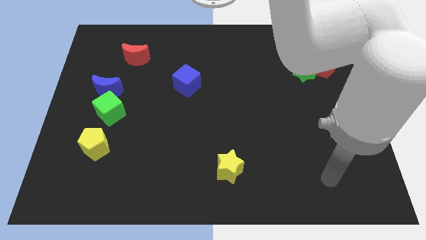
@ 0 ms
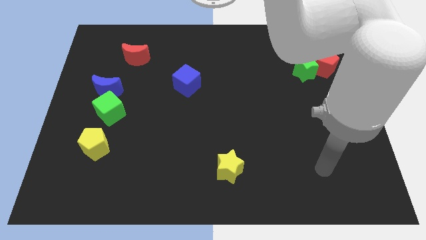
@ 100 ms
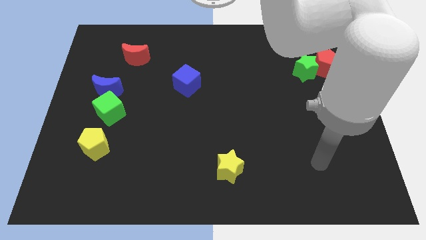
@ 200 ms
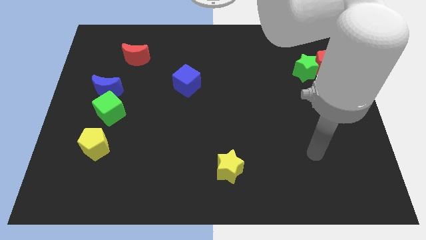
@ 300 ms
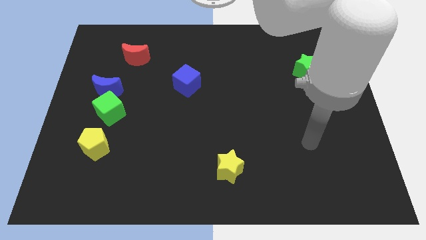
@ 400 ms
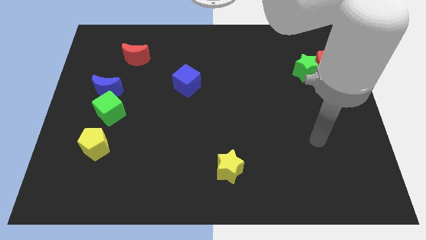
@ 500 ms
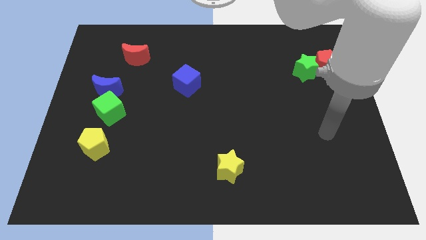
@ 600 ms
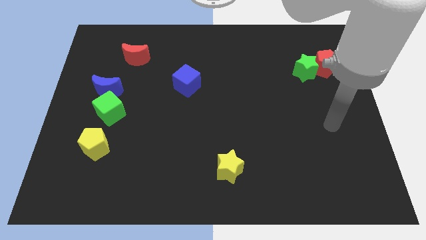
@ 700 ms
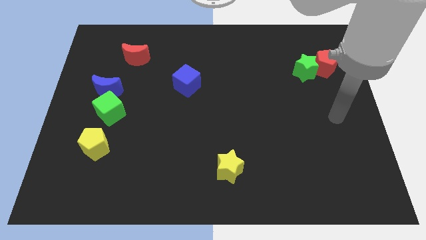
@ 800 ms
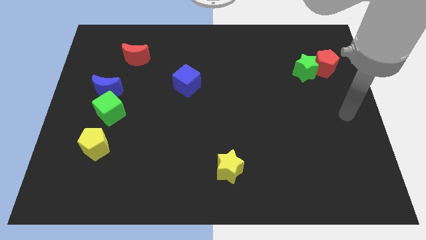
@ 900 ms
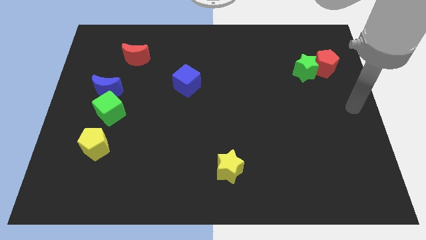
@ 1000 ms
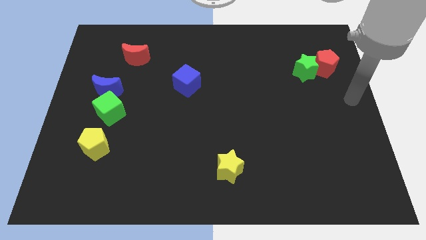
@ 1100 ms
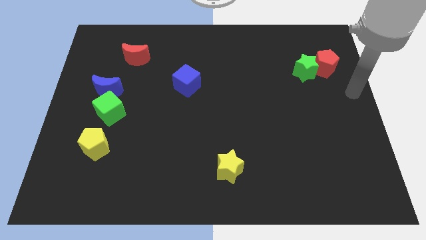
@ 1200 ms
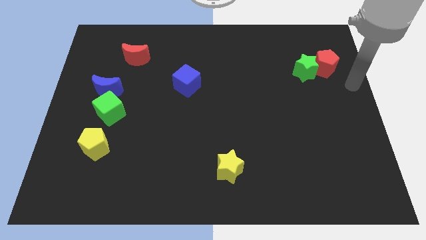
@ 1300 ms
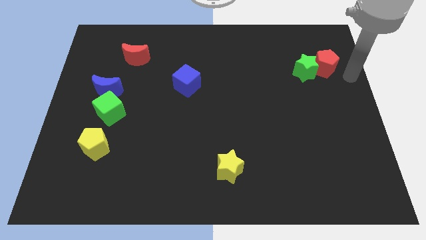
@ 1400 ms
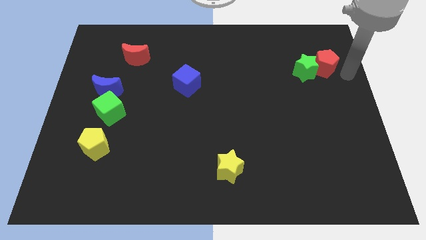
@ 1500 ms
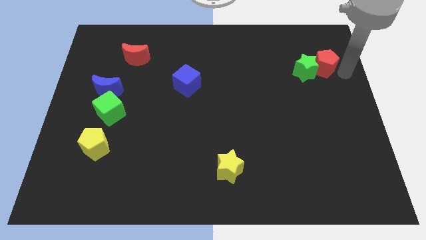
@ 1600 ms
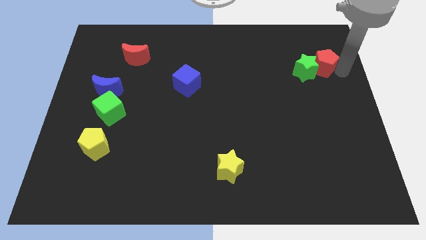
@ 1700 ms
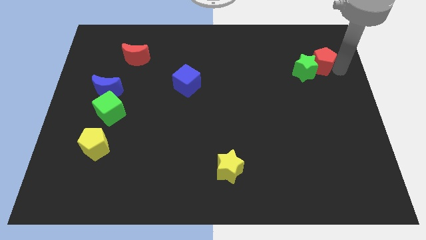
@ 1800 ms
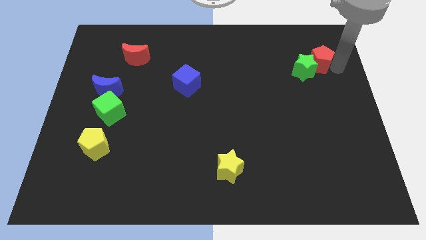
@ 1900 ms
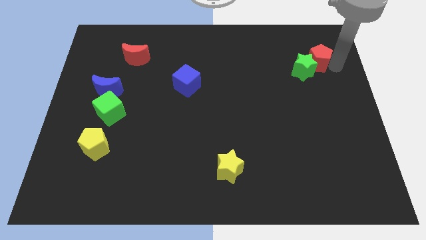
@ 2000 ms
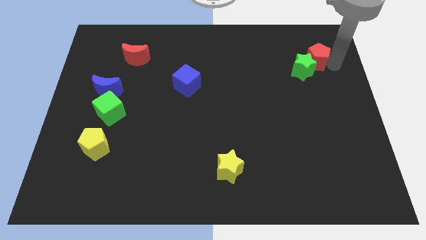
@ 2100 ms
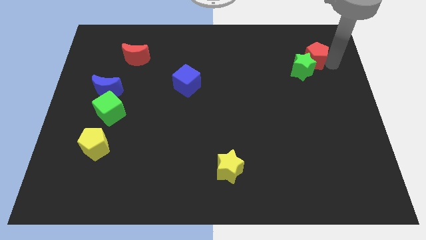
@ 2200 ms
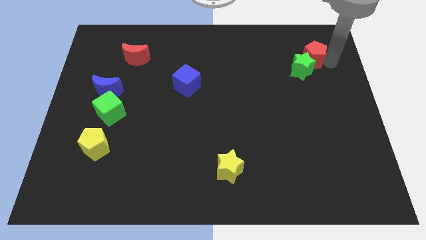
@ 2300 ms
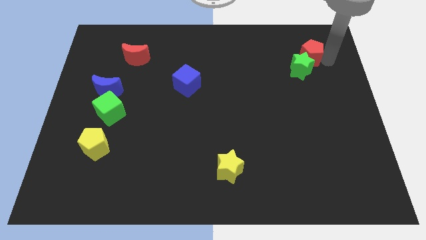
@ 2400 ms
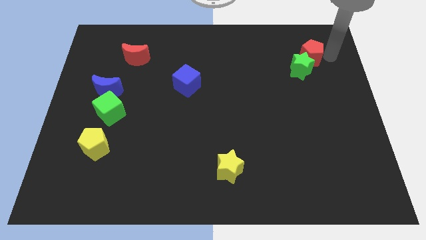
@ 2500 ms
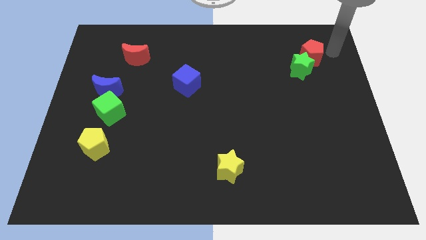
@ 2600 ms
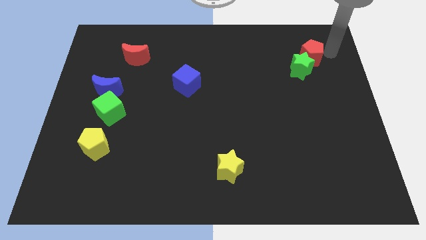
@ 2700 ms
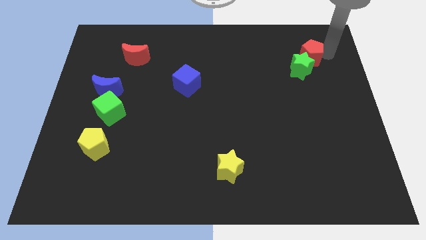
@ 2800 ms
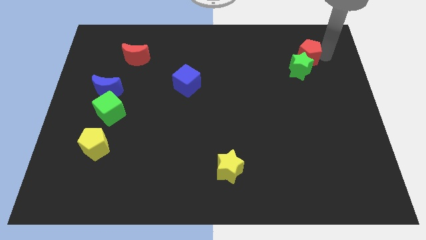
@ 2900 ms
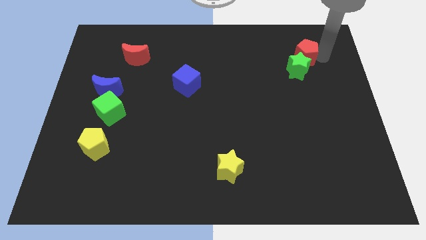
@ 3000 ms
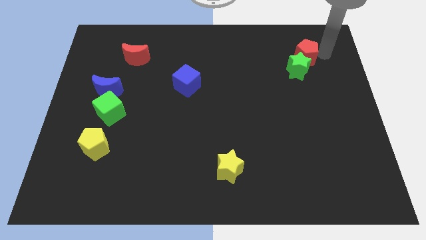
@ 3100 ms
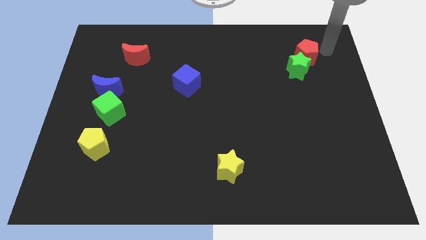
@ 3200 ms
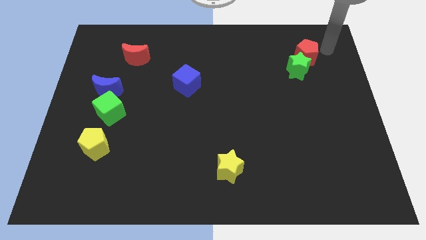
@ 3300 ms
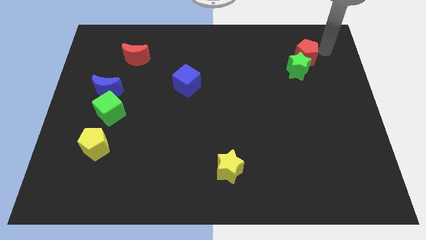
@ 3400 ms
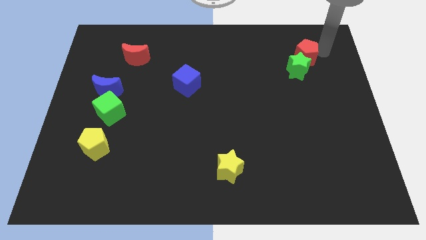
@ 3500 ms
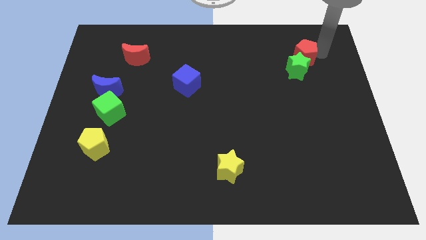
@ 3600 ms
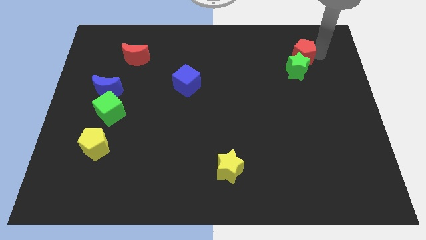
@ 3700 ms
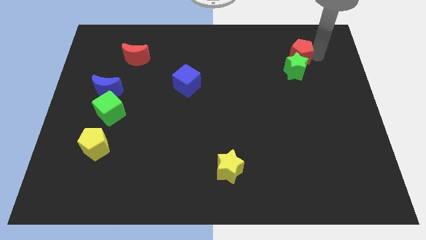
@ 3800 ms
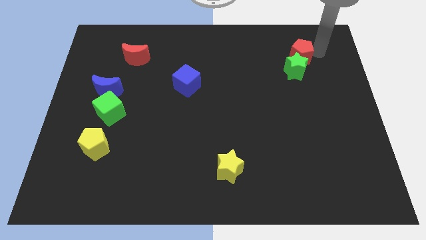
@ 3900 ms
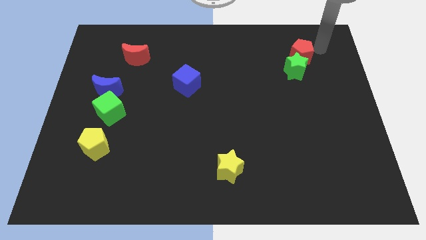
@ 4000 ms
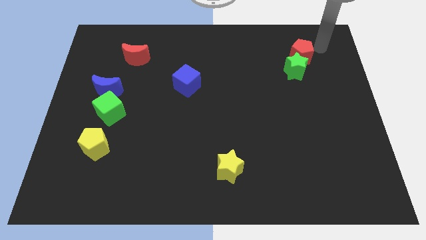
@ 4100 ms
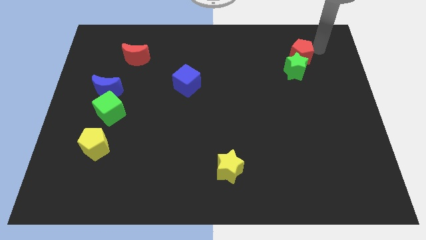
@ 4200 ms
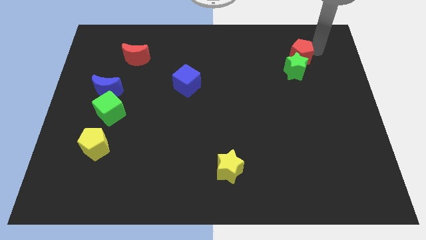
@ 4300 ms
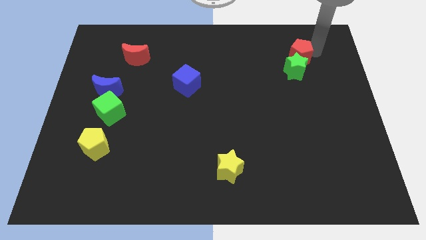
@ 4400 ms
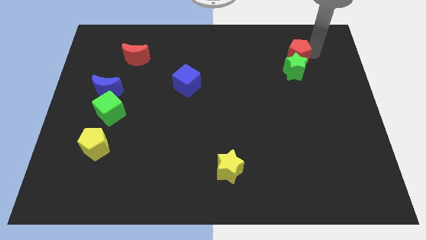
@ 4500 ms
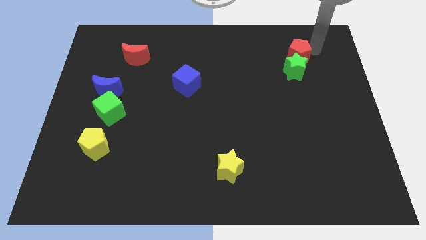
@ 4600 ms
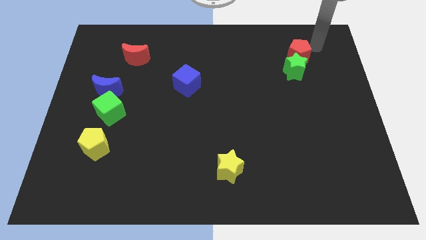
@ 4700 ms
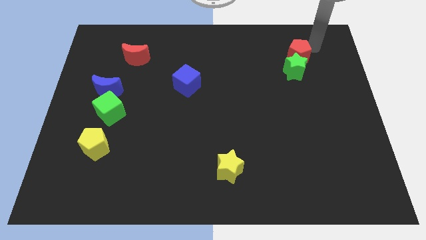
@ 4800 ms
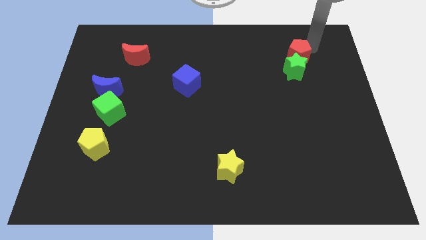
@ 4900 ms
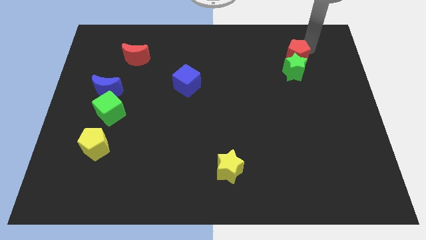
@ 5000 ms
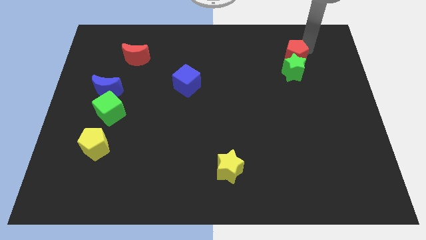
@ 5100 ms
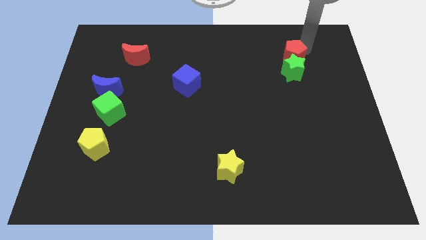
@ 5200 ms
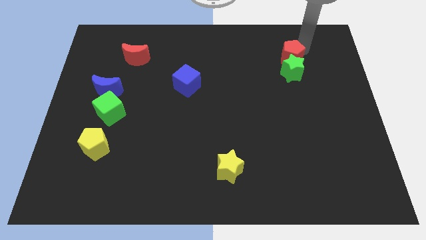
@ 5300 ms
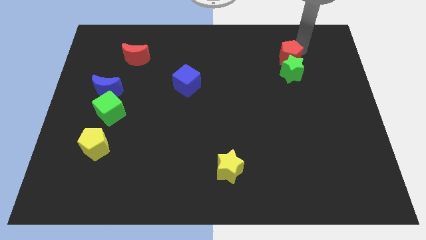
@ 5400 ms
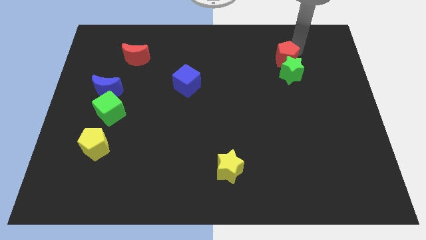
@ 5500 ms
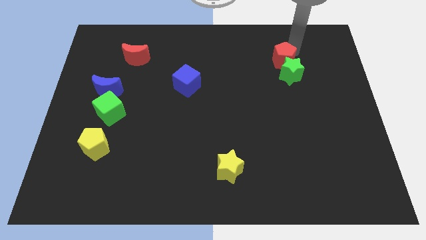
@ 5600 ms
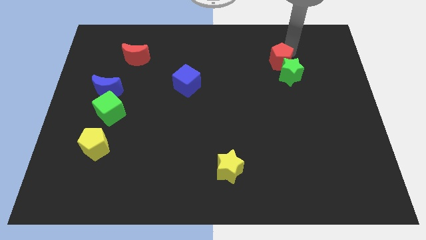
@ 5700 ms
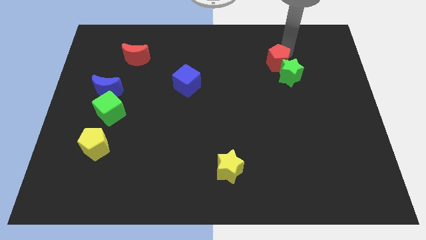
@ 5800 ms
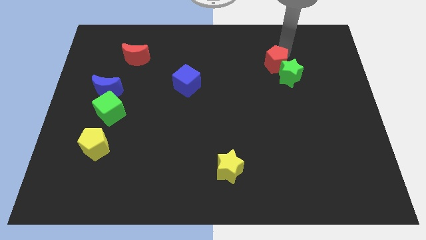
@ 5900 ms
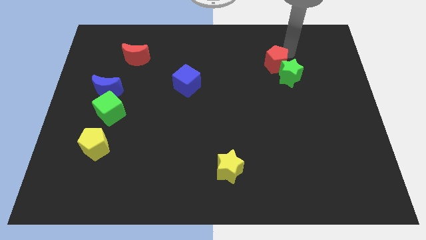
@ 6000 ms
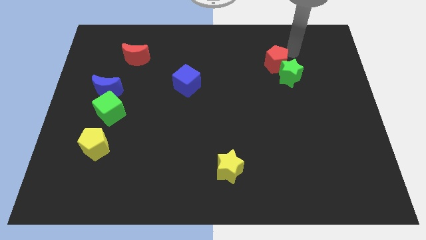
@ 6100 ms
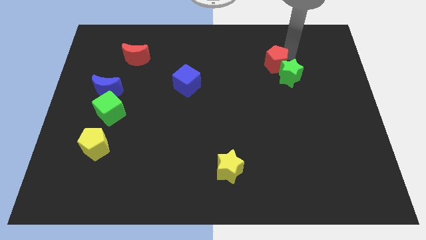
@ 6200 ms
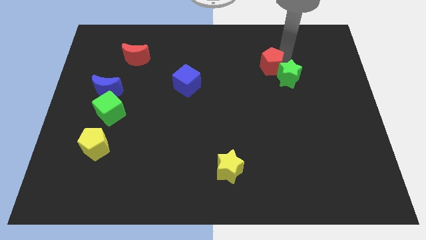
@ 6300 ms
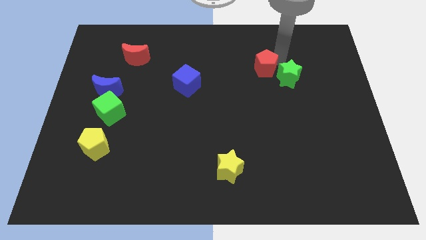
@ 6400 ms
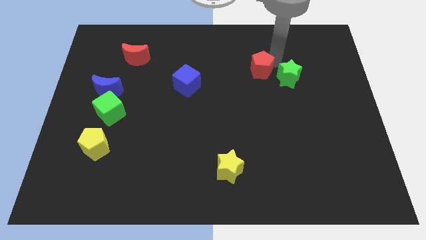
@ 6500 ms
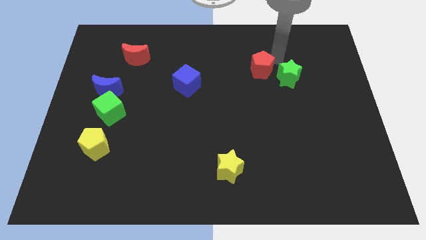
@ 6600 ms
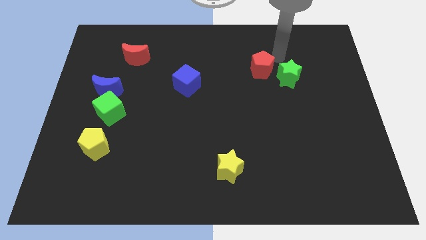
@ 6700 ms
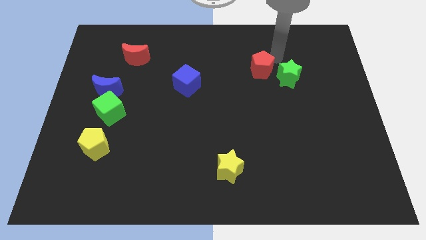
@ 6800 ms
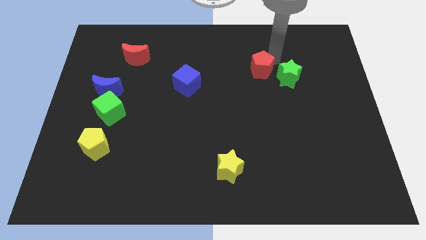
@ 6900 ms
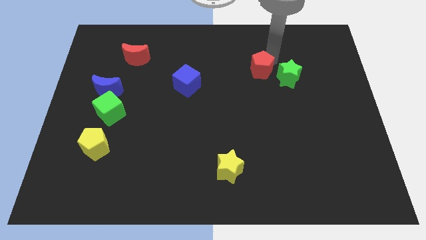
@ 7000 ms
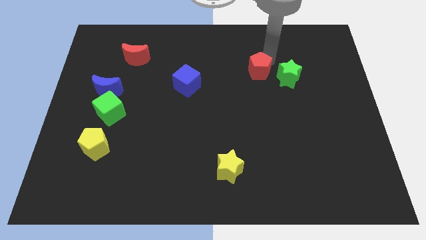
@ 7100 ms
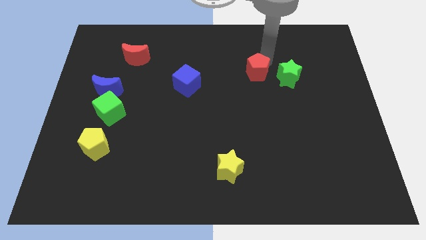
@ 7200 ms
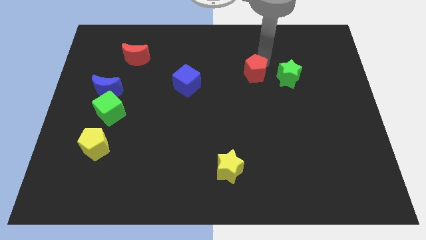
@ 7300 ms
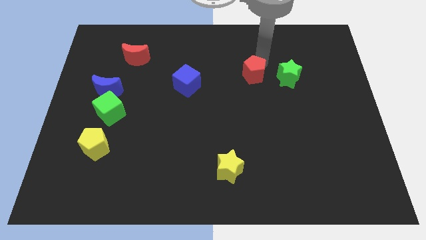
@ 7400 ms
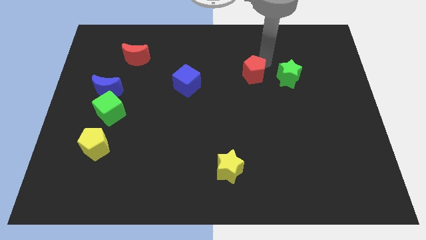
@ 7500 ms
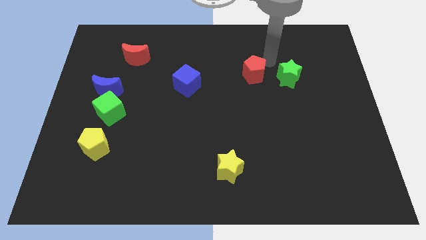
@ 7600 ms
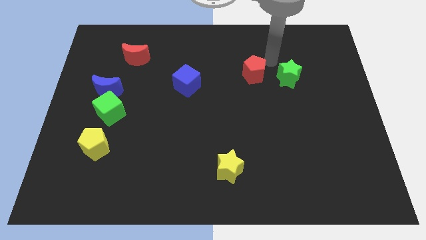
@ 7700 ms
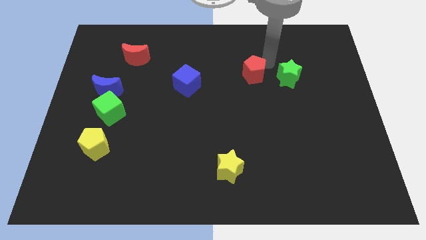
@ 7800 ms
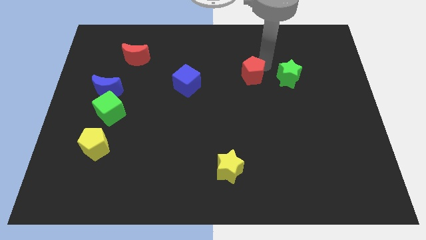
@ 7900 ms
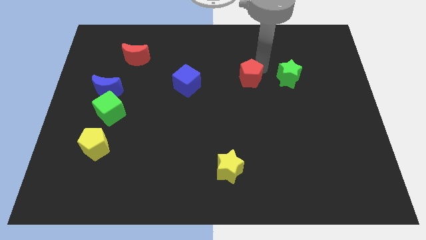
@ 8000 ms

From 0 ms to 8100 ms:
push the red pentagon to the middle of the board
